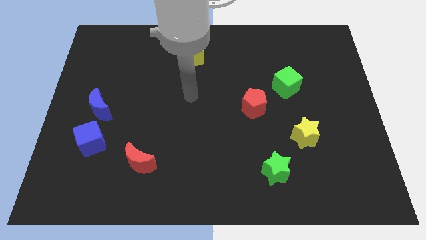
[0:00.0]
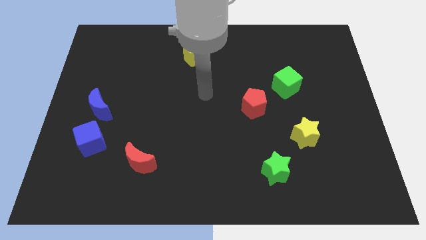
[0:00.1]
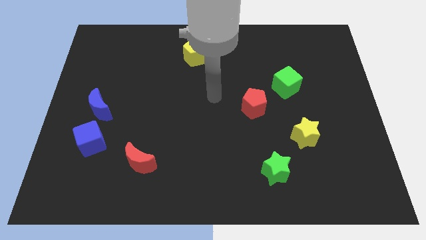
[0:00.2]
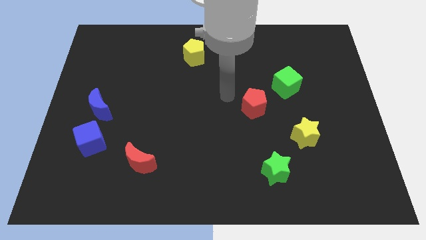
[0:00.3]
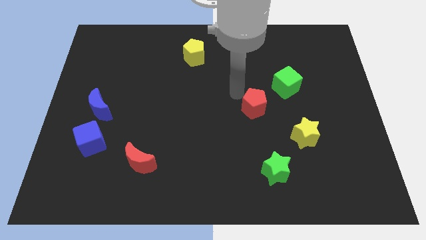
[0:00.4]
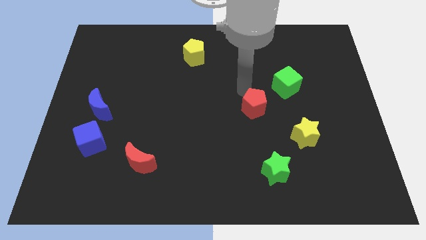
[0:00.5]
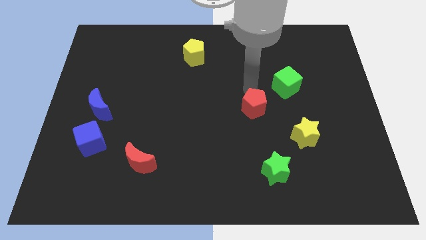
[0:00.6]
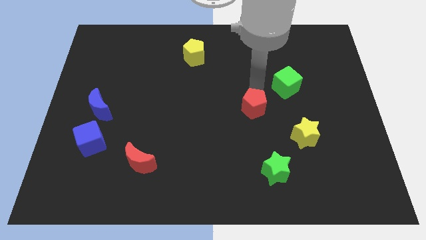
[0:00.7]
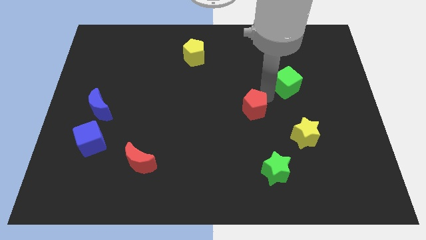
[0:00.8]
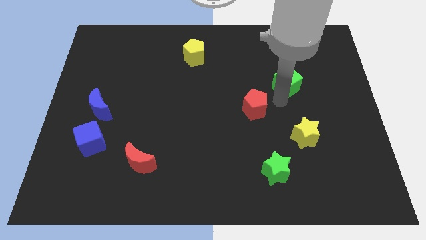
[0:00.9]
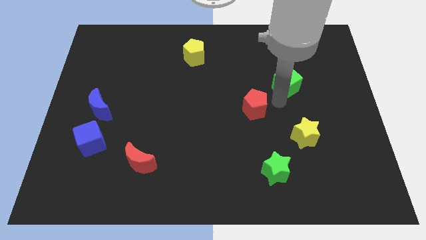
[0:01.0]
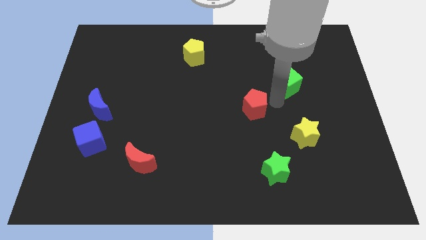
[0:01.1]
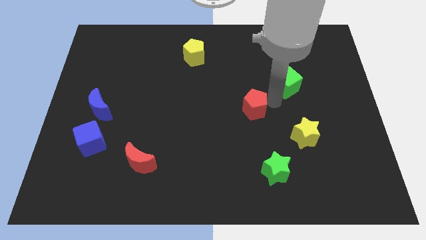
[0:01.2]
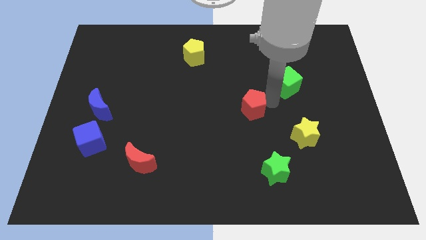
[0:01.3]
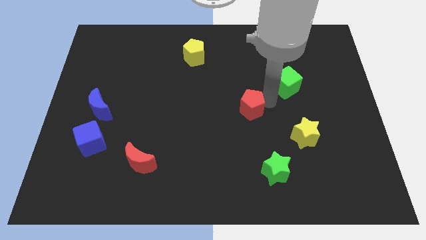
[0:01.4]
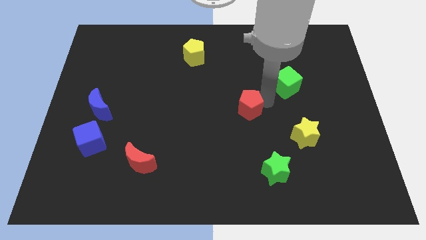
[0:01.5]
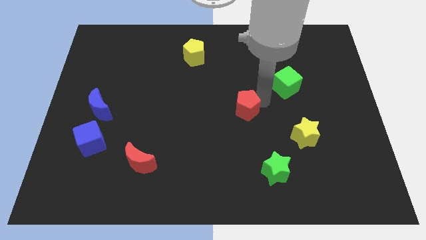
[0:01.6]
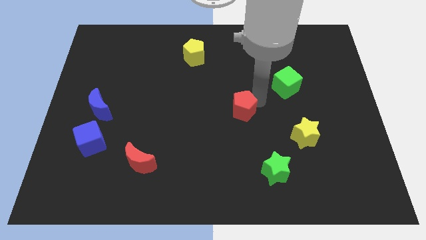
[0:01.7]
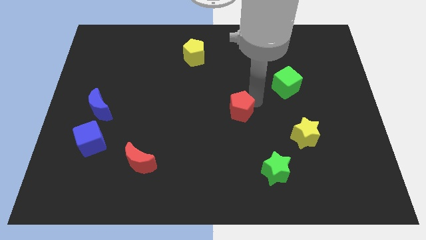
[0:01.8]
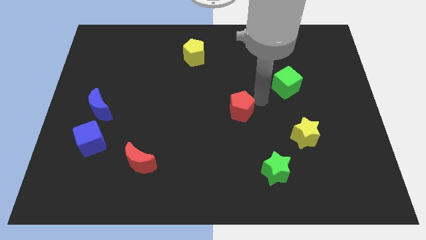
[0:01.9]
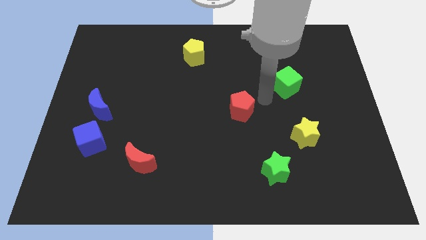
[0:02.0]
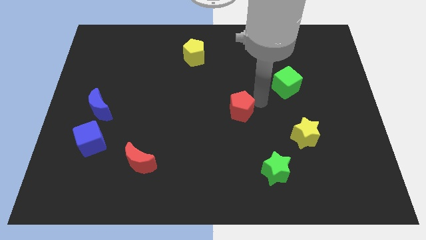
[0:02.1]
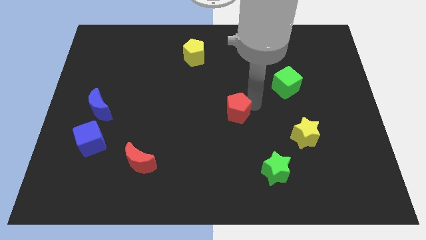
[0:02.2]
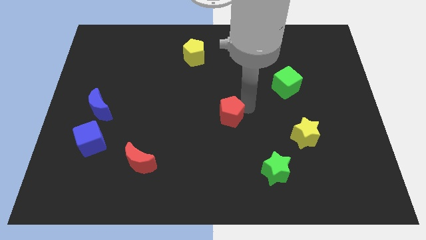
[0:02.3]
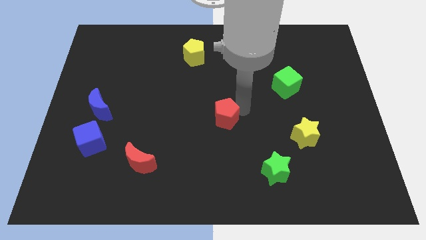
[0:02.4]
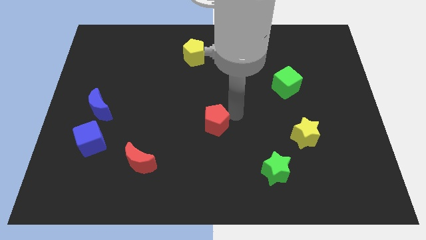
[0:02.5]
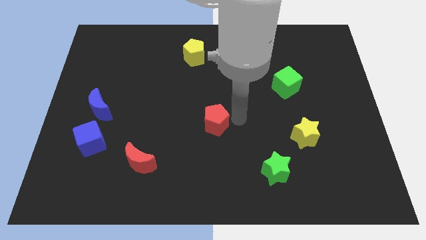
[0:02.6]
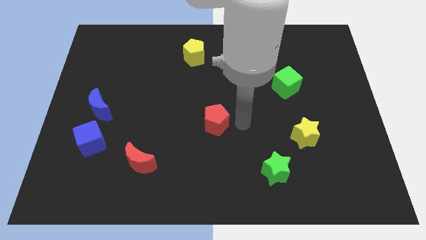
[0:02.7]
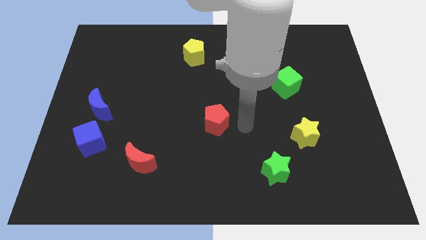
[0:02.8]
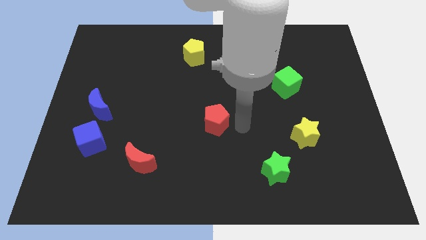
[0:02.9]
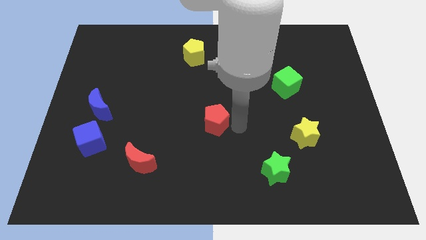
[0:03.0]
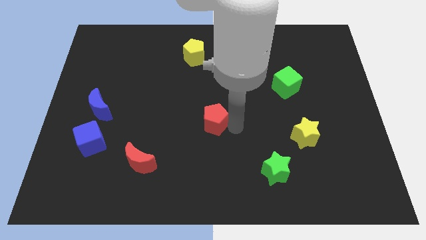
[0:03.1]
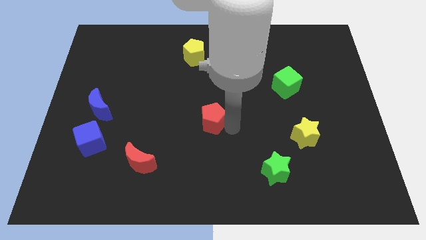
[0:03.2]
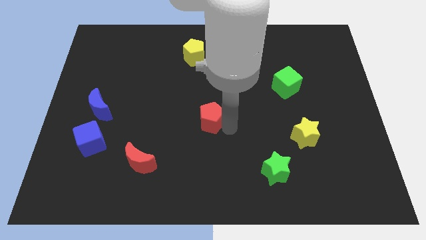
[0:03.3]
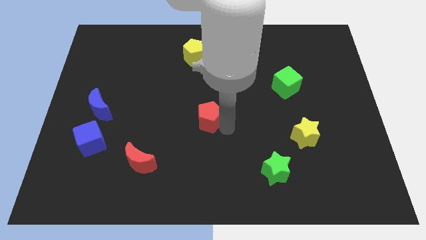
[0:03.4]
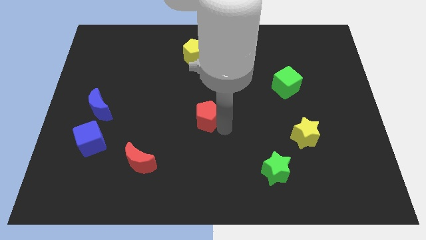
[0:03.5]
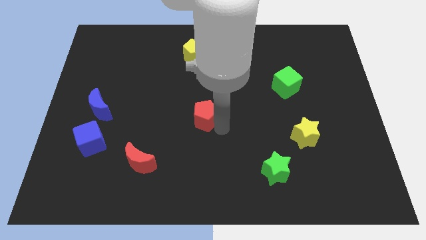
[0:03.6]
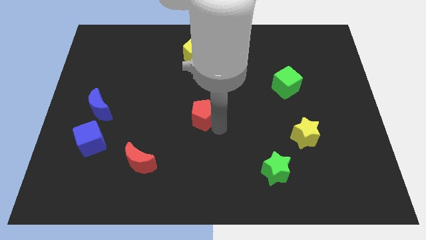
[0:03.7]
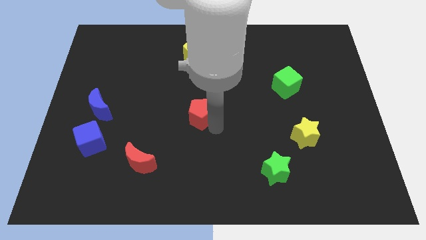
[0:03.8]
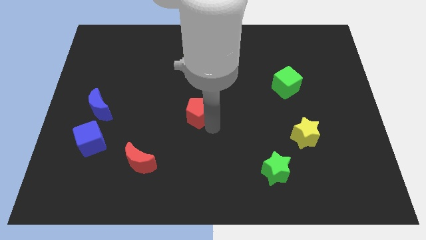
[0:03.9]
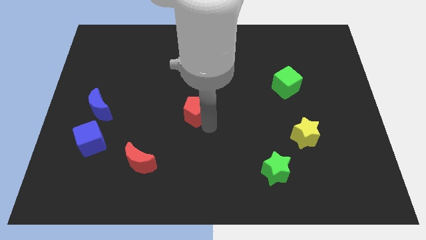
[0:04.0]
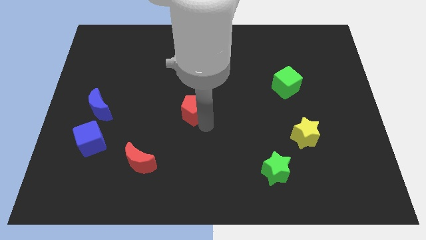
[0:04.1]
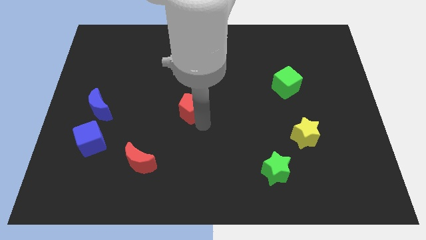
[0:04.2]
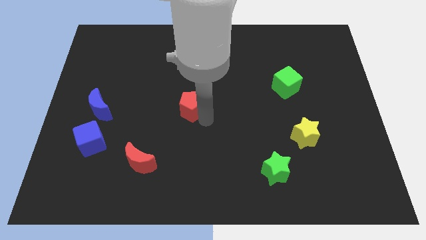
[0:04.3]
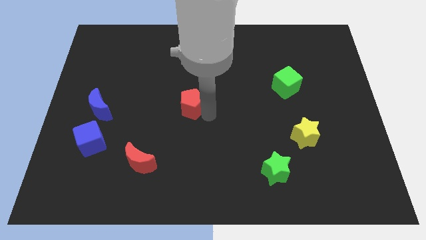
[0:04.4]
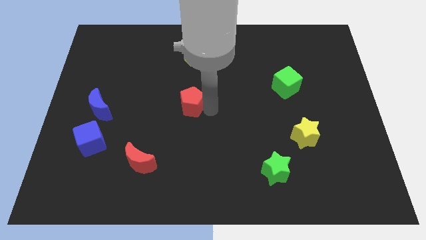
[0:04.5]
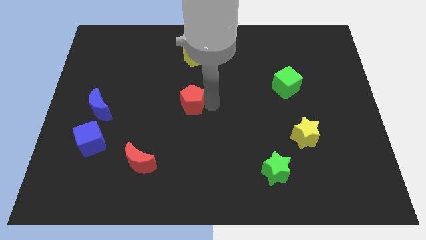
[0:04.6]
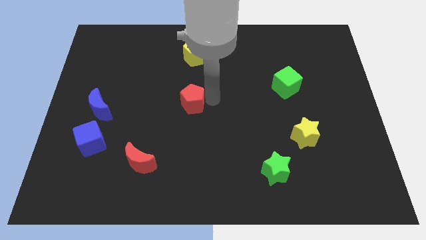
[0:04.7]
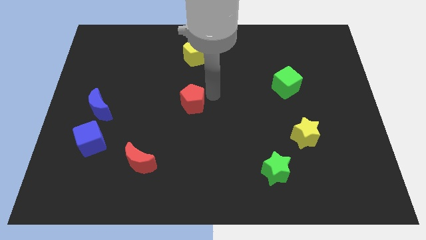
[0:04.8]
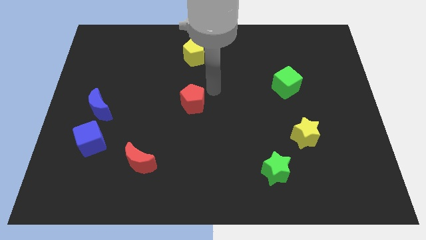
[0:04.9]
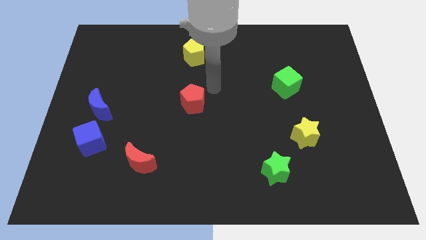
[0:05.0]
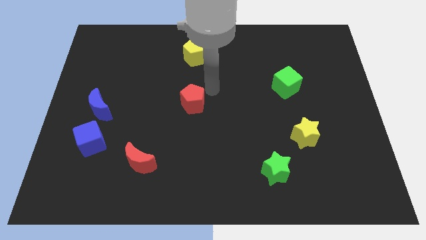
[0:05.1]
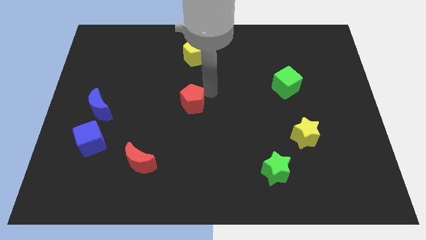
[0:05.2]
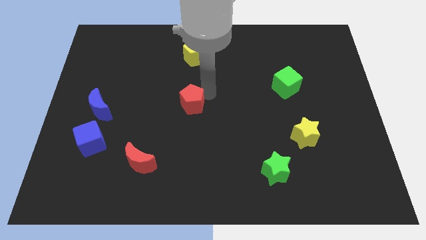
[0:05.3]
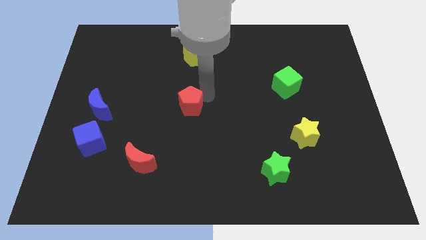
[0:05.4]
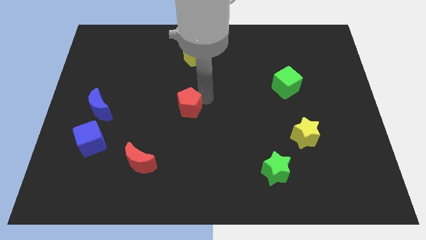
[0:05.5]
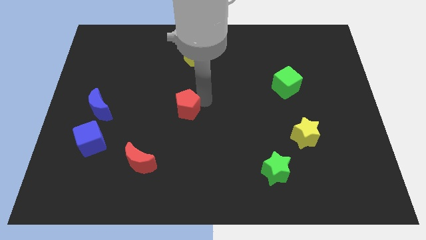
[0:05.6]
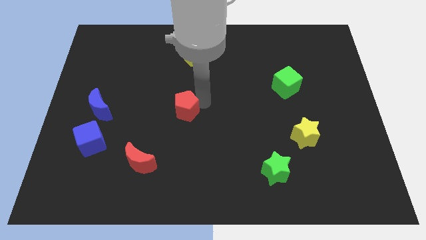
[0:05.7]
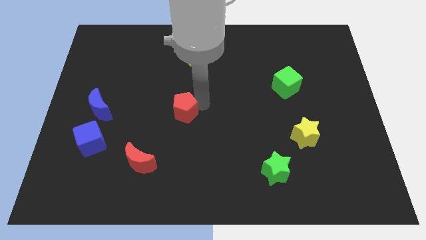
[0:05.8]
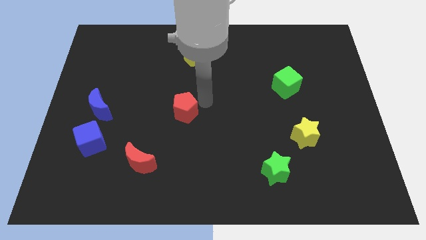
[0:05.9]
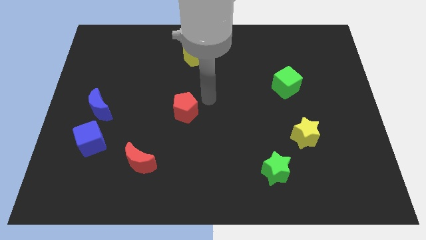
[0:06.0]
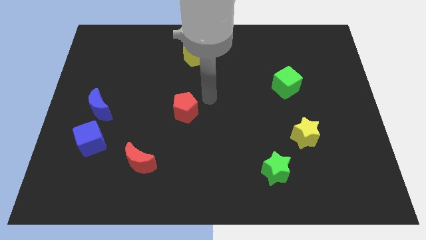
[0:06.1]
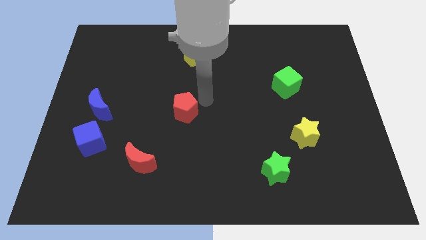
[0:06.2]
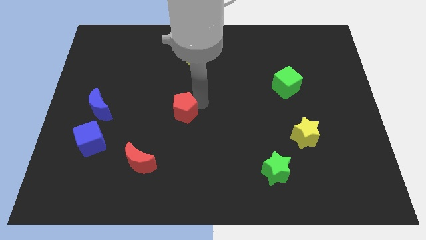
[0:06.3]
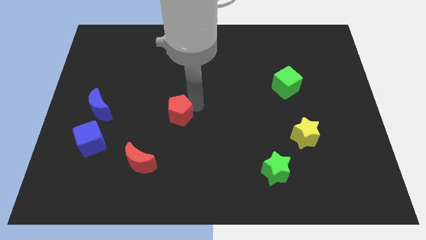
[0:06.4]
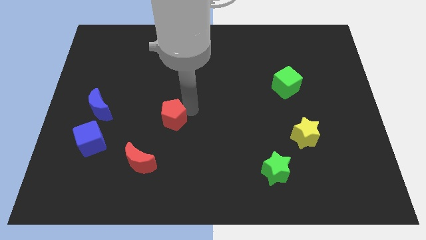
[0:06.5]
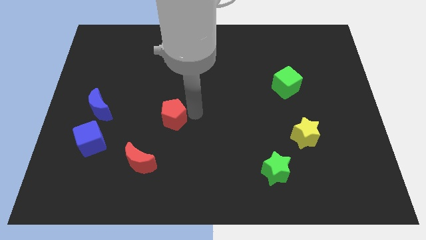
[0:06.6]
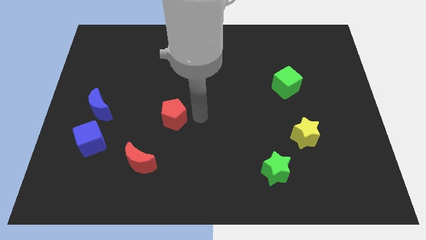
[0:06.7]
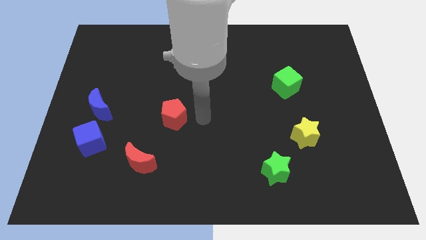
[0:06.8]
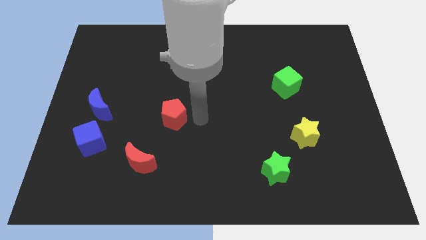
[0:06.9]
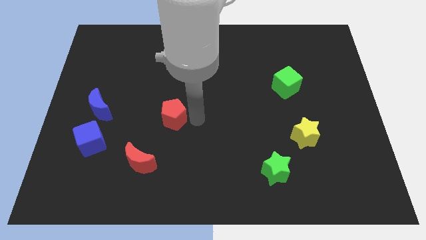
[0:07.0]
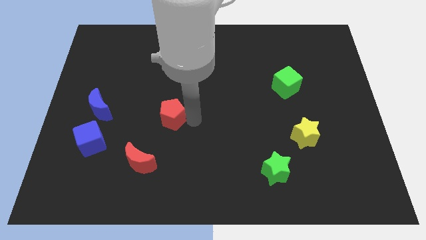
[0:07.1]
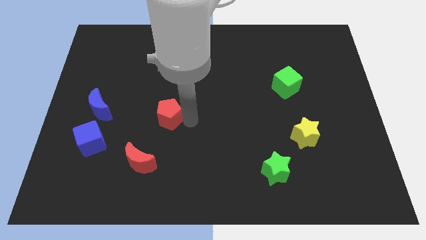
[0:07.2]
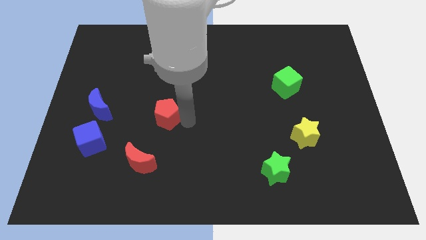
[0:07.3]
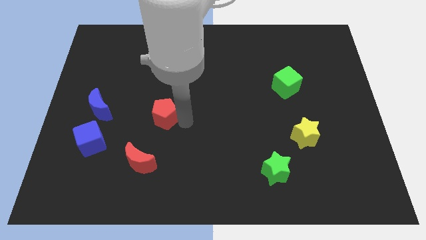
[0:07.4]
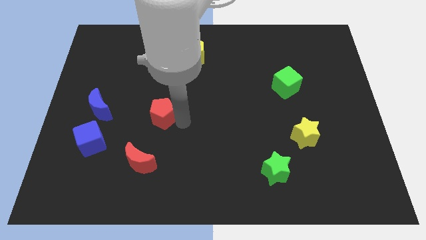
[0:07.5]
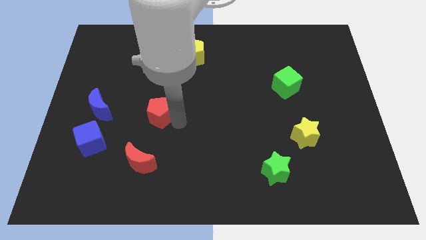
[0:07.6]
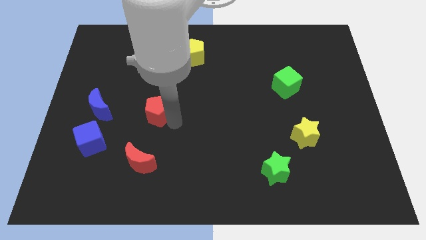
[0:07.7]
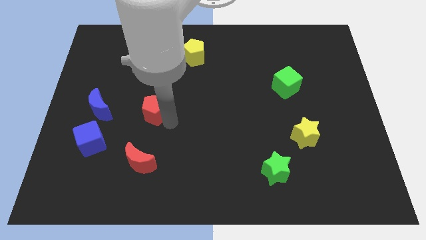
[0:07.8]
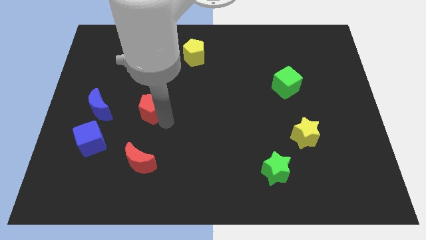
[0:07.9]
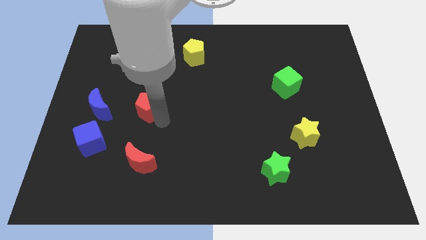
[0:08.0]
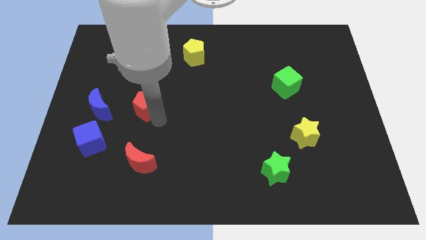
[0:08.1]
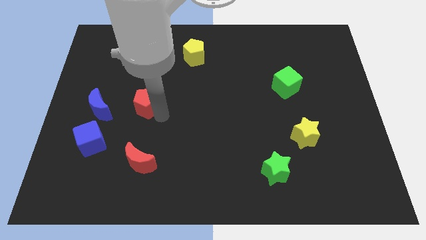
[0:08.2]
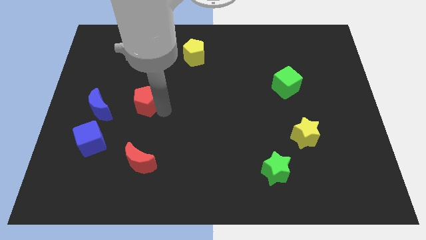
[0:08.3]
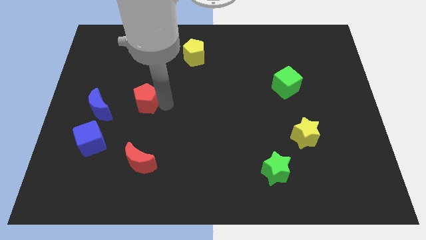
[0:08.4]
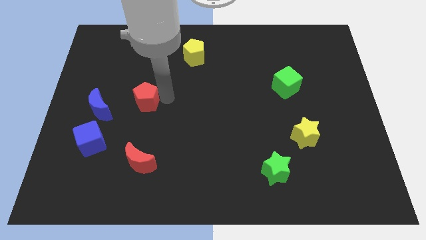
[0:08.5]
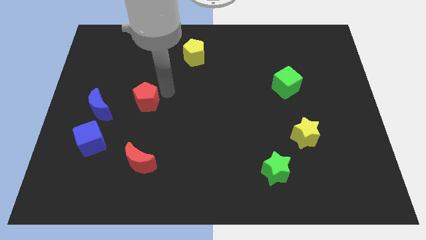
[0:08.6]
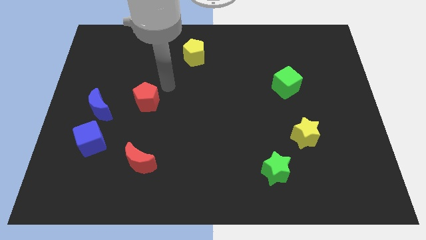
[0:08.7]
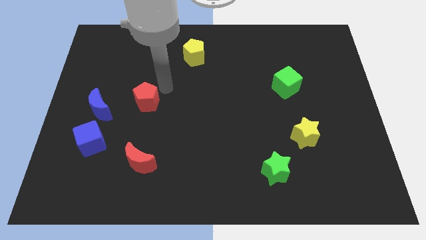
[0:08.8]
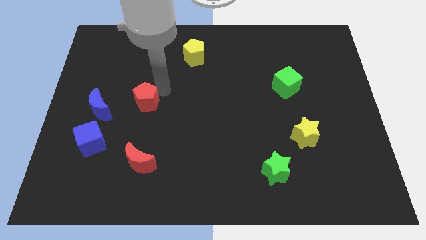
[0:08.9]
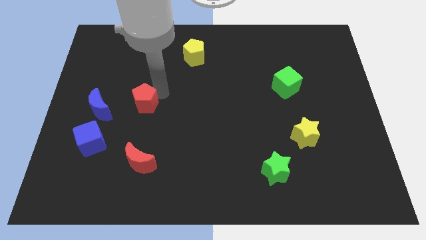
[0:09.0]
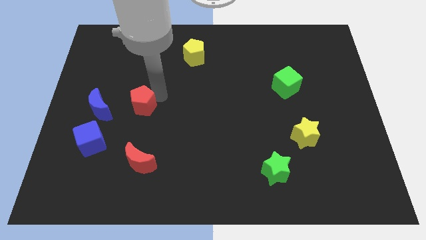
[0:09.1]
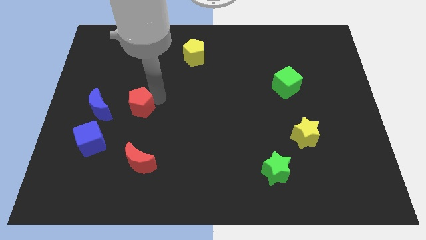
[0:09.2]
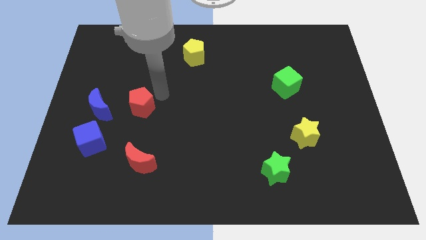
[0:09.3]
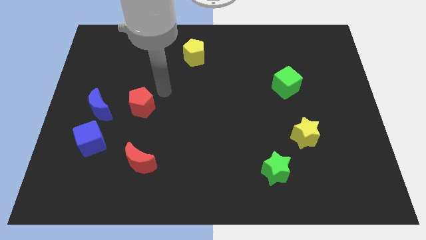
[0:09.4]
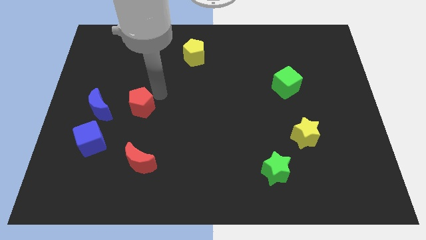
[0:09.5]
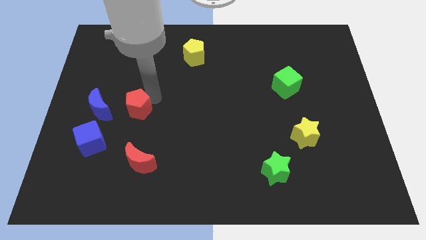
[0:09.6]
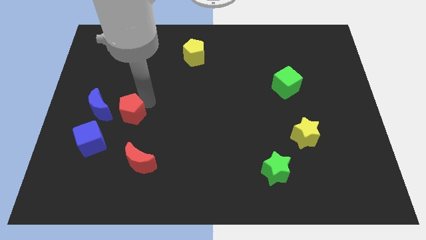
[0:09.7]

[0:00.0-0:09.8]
push the red pentagon diagonally up and to the right of the blue cube
